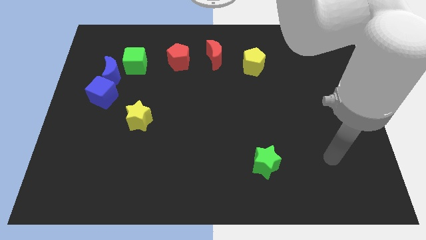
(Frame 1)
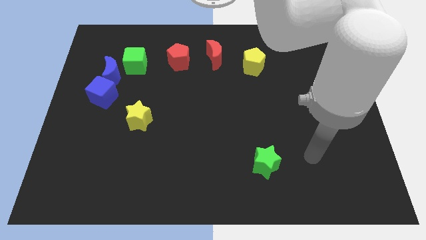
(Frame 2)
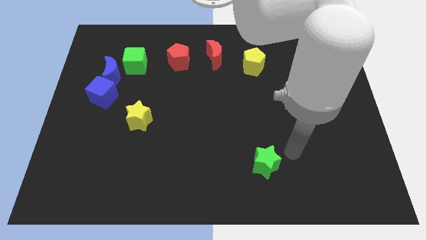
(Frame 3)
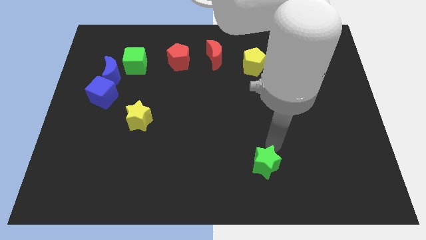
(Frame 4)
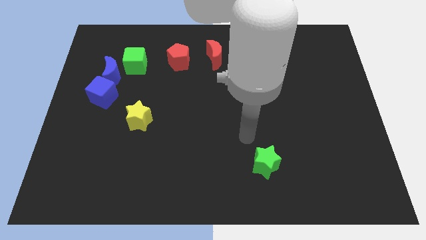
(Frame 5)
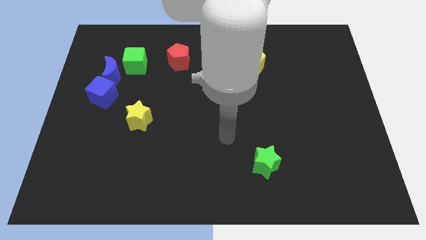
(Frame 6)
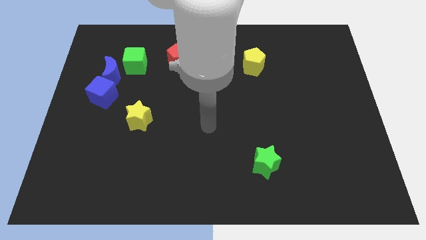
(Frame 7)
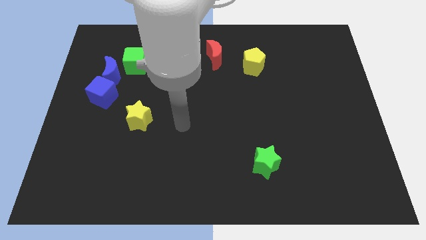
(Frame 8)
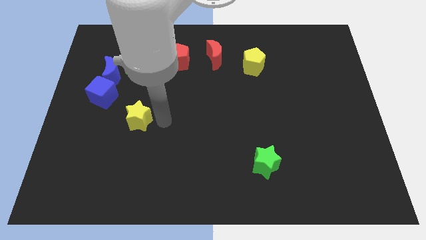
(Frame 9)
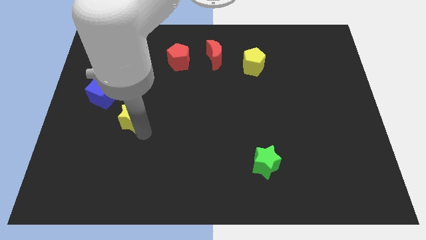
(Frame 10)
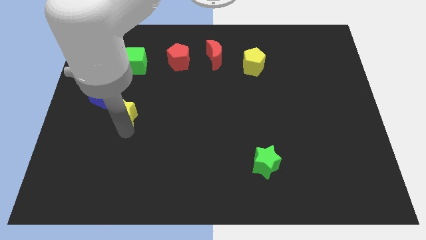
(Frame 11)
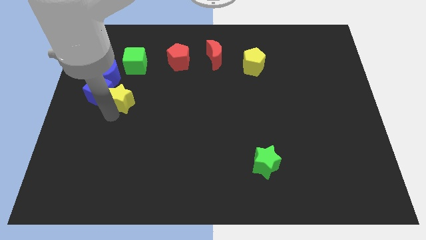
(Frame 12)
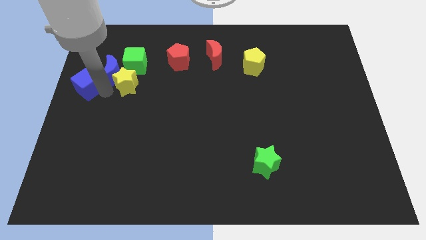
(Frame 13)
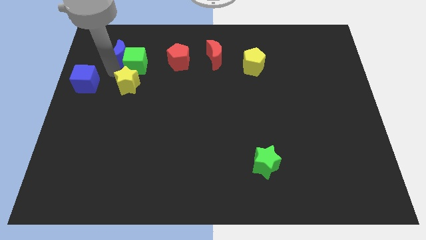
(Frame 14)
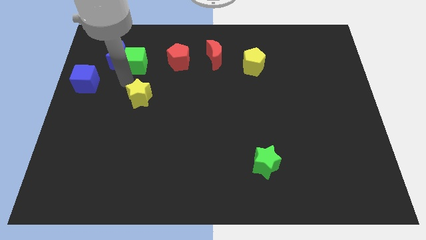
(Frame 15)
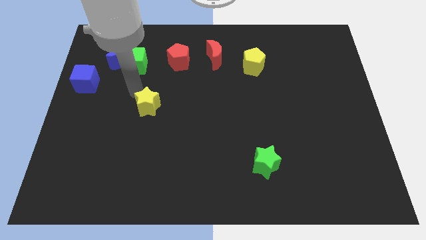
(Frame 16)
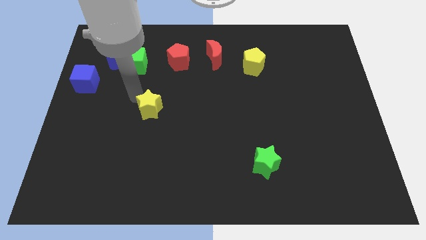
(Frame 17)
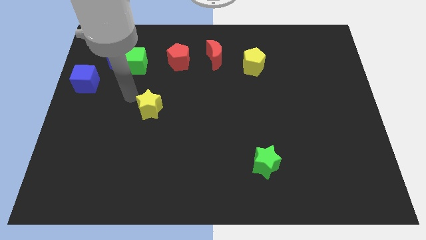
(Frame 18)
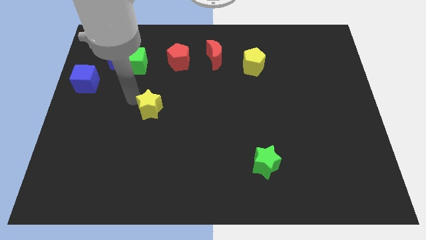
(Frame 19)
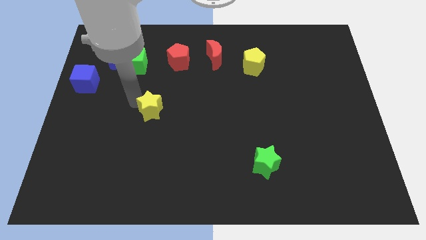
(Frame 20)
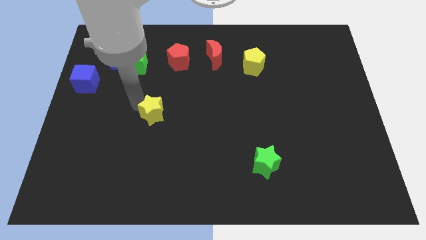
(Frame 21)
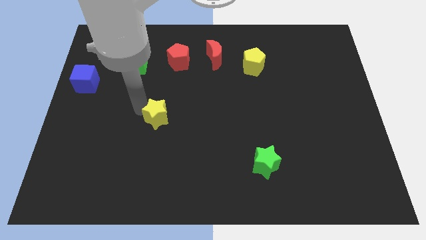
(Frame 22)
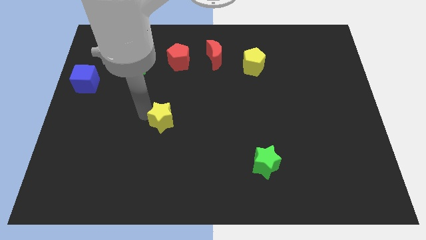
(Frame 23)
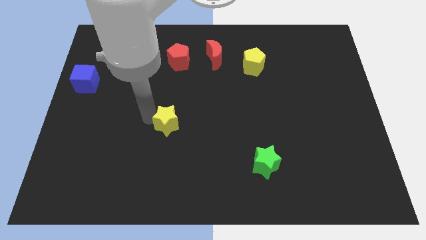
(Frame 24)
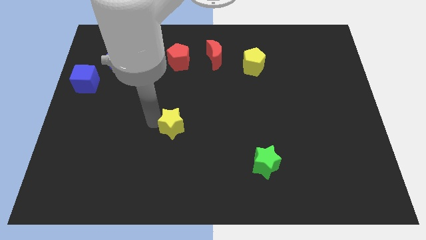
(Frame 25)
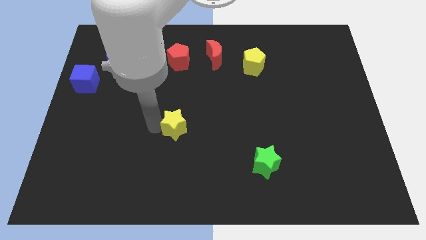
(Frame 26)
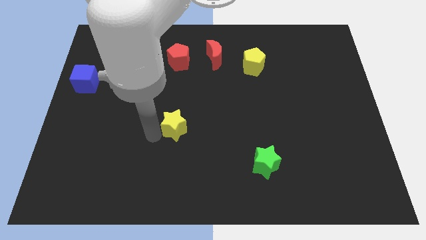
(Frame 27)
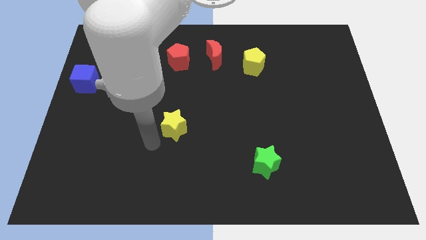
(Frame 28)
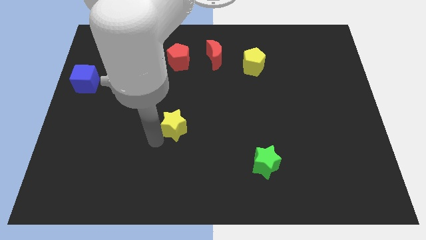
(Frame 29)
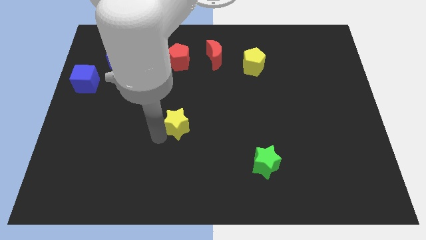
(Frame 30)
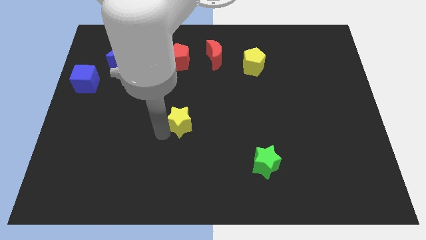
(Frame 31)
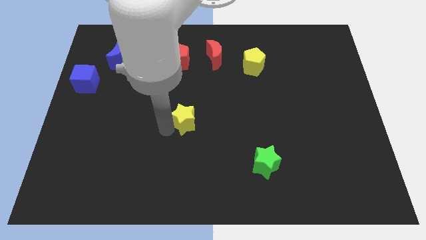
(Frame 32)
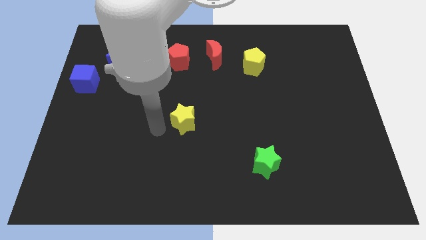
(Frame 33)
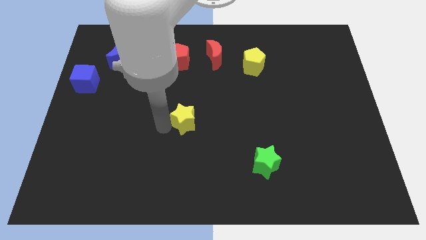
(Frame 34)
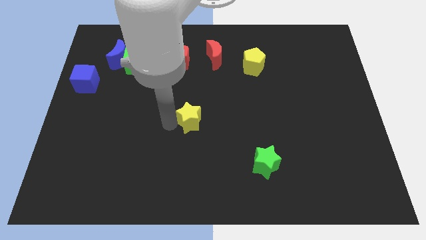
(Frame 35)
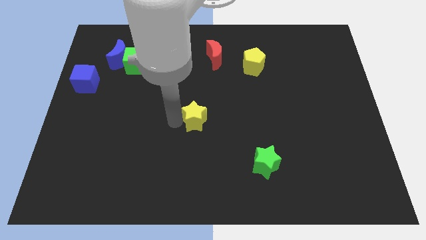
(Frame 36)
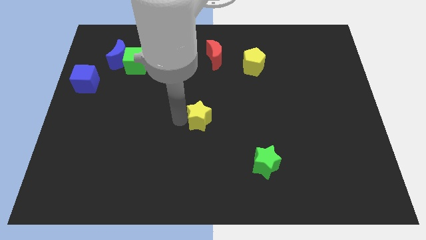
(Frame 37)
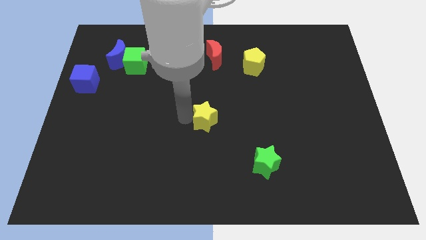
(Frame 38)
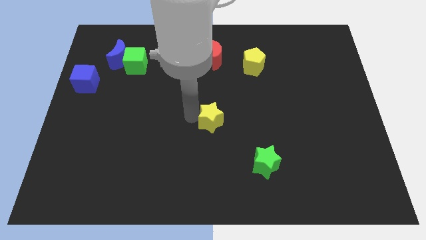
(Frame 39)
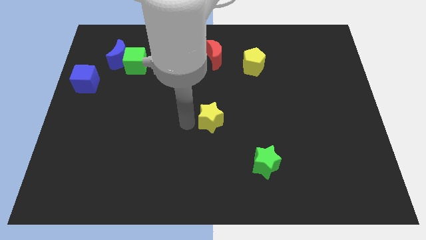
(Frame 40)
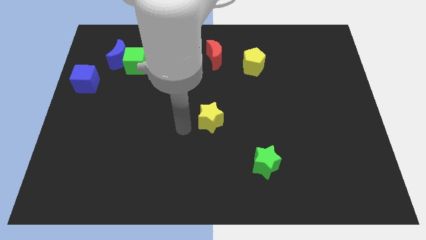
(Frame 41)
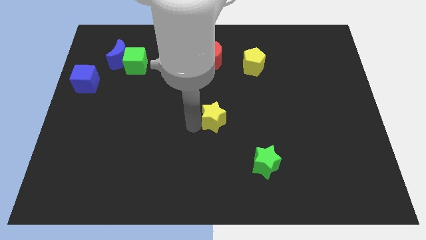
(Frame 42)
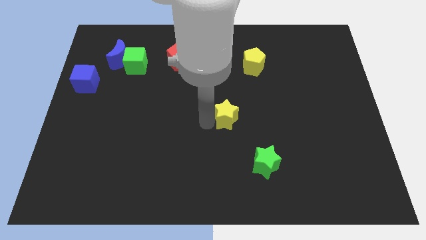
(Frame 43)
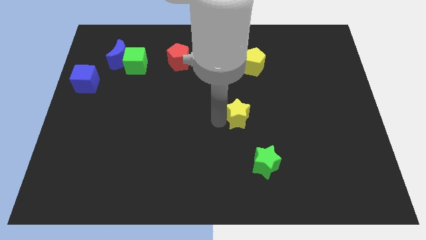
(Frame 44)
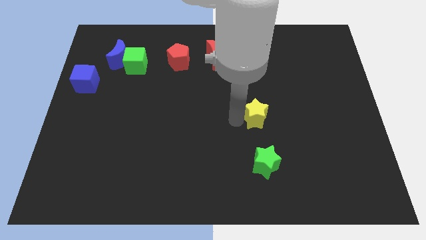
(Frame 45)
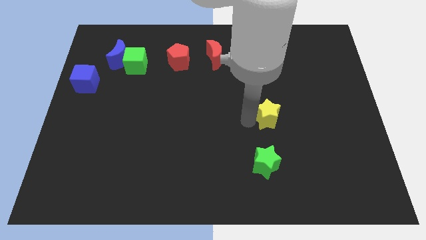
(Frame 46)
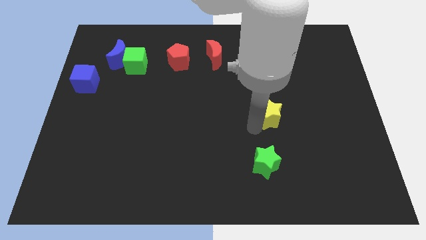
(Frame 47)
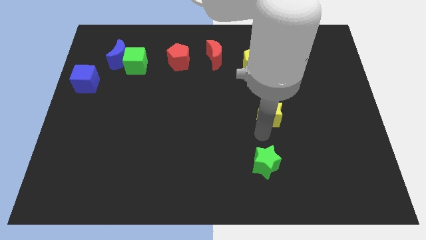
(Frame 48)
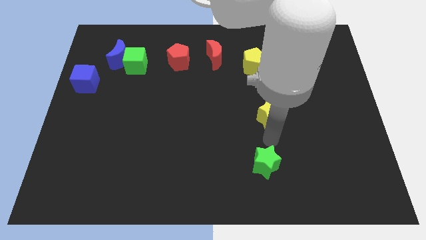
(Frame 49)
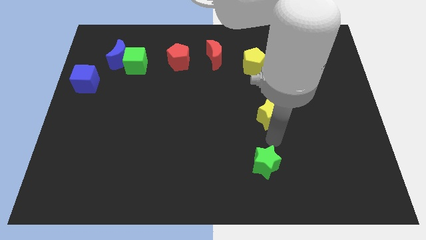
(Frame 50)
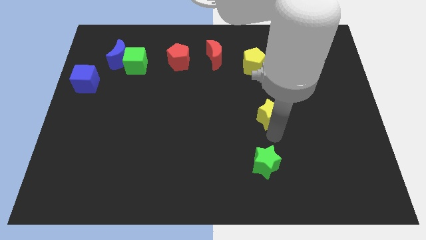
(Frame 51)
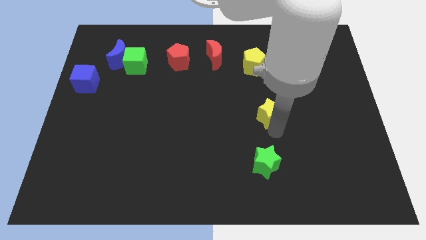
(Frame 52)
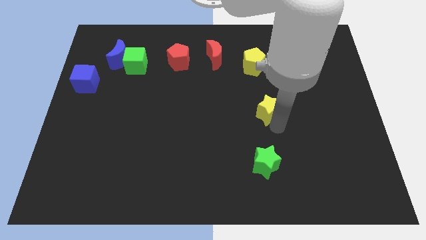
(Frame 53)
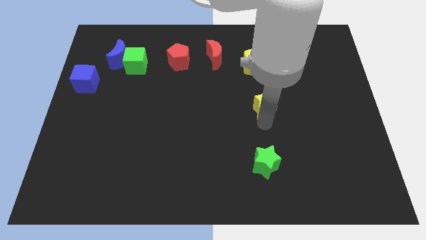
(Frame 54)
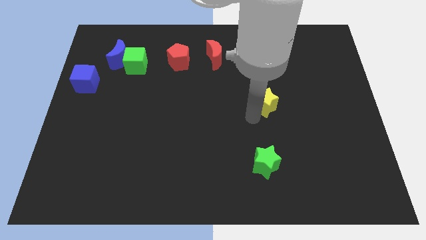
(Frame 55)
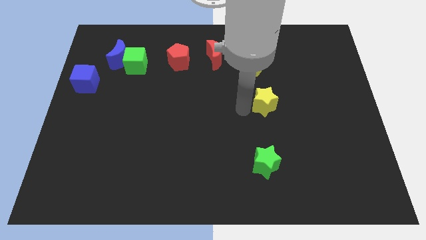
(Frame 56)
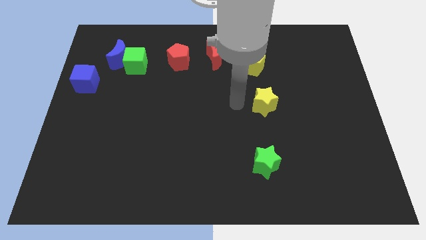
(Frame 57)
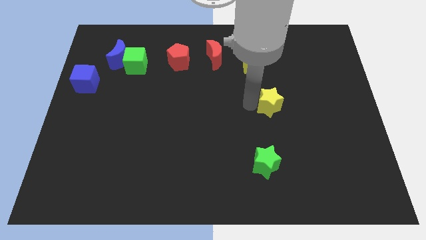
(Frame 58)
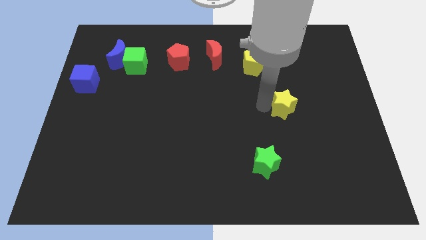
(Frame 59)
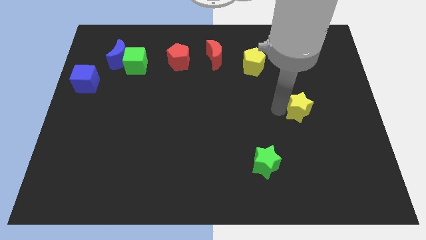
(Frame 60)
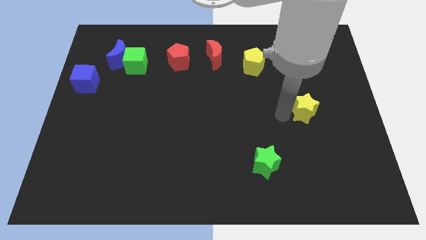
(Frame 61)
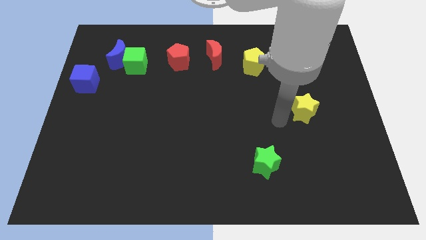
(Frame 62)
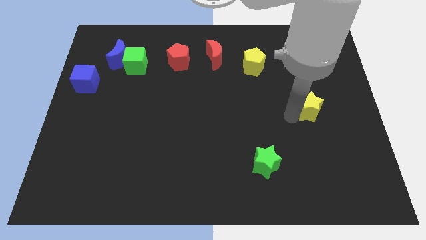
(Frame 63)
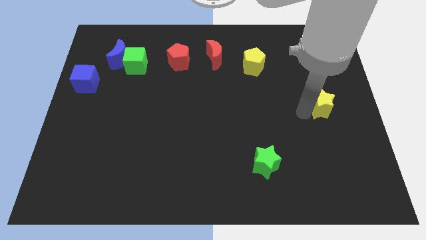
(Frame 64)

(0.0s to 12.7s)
push the yellow star to the center right

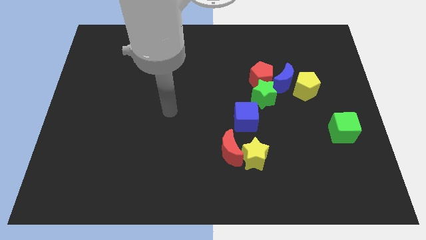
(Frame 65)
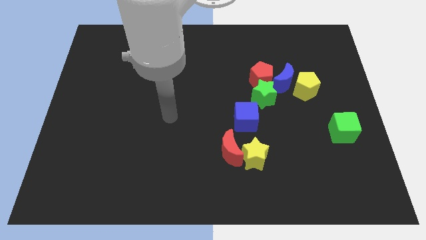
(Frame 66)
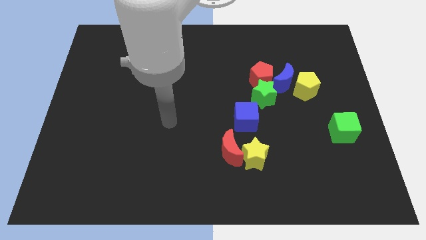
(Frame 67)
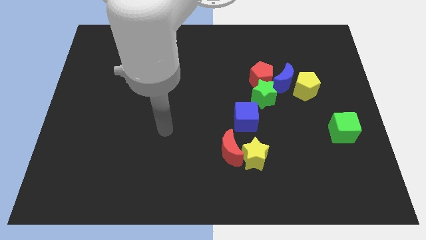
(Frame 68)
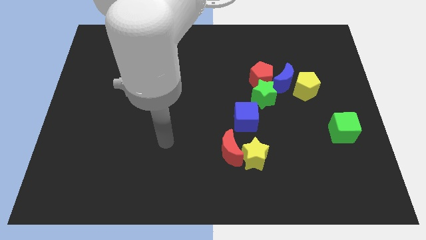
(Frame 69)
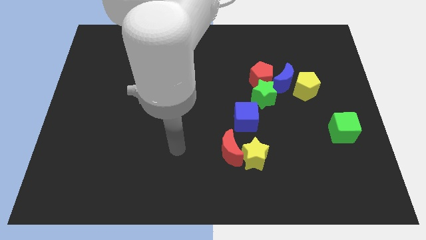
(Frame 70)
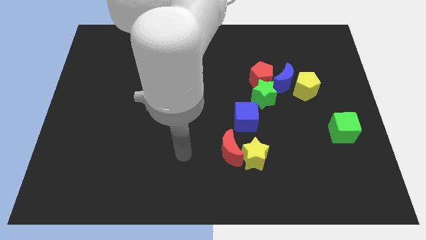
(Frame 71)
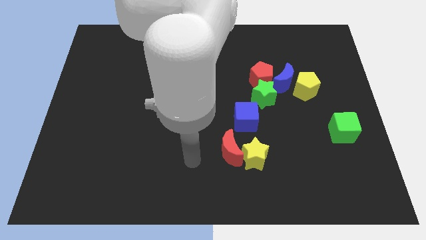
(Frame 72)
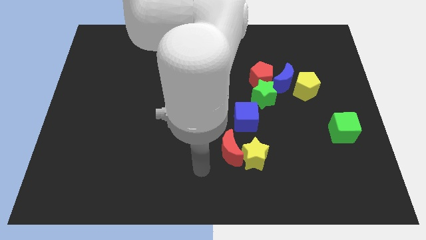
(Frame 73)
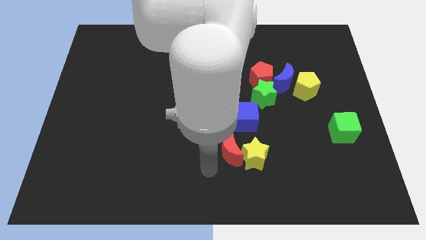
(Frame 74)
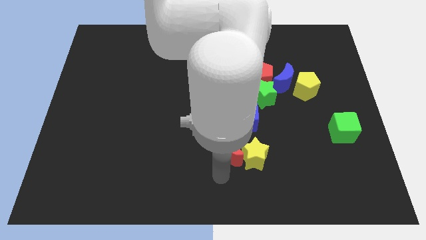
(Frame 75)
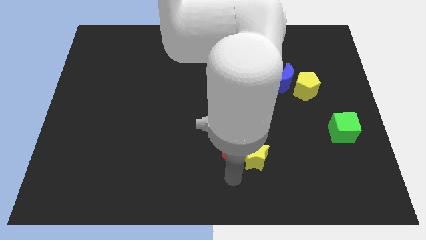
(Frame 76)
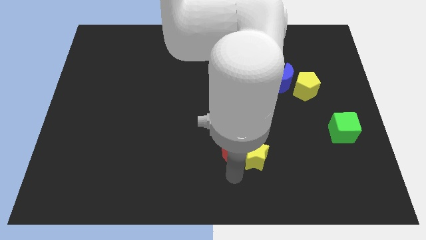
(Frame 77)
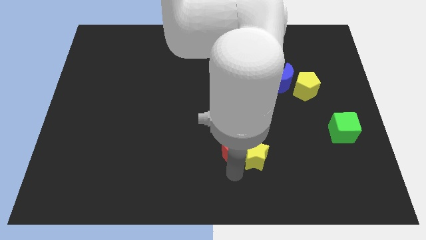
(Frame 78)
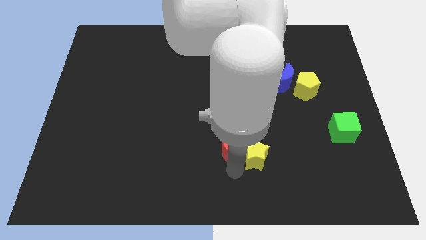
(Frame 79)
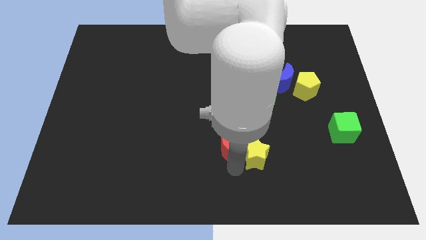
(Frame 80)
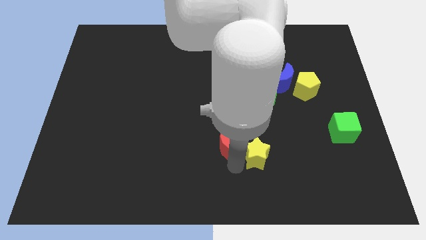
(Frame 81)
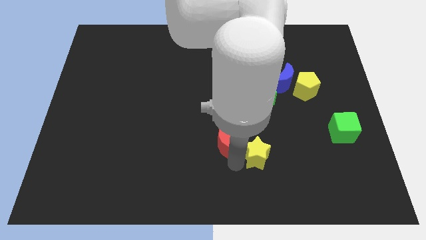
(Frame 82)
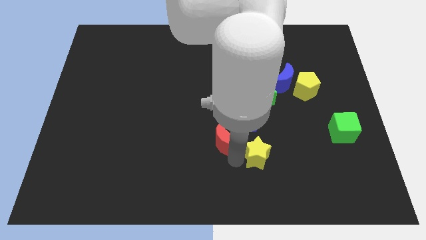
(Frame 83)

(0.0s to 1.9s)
move the red moon to the middle of the board
